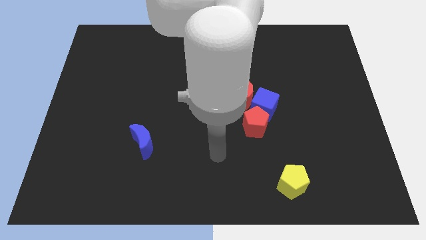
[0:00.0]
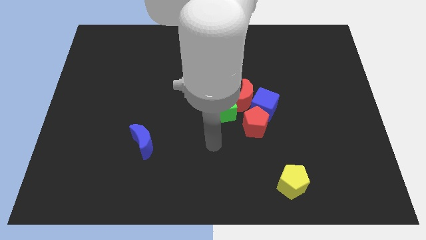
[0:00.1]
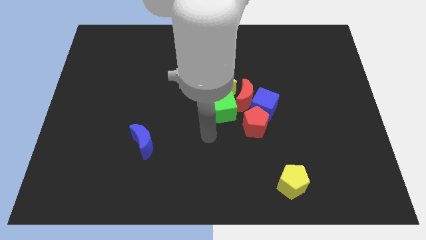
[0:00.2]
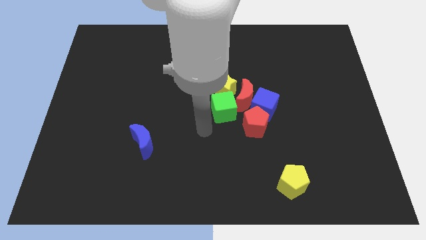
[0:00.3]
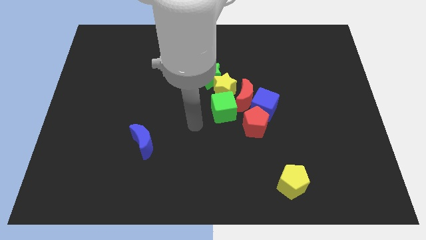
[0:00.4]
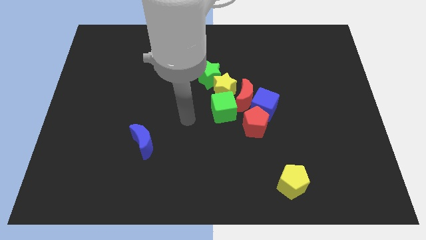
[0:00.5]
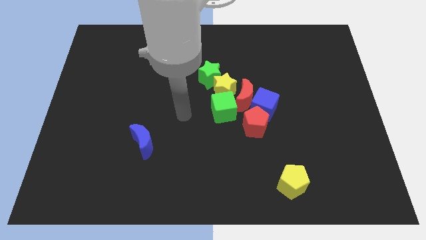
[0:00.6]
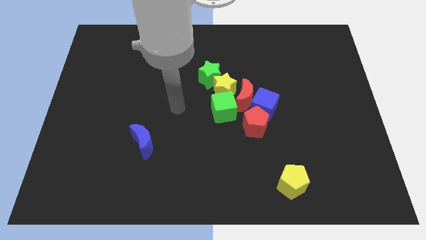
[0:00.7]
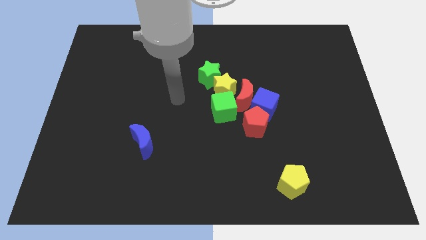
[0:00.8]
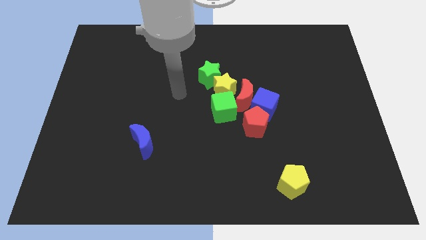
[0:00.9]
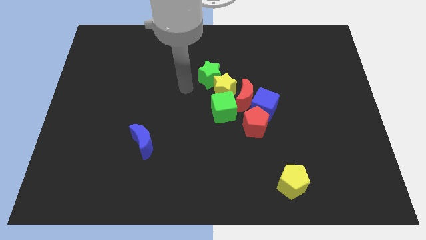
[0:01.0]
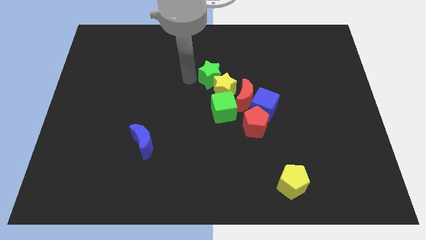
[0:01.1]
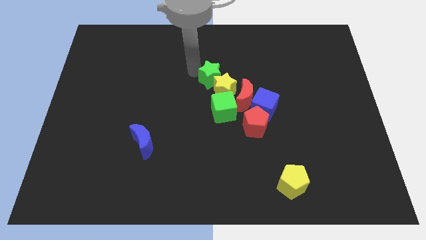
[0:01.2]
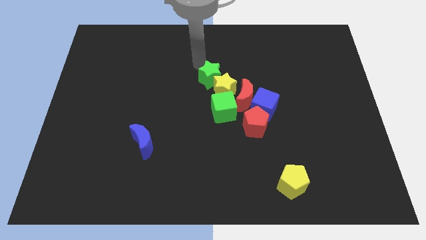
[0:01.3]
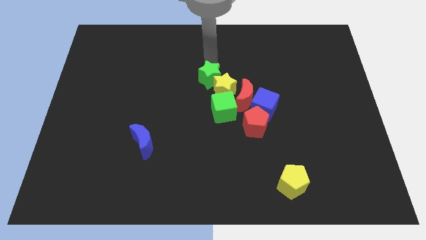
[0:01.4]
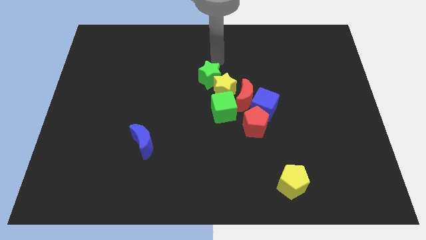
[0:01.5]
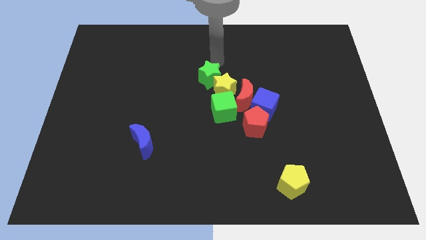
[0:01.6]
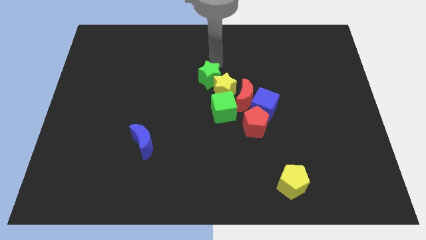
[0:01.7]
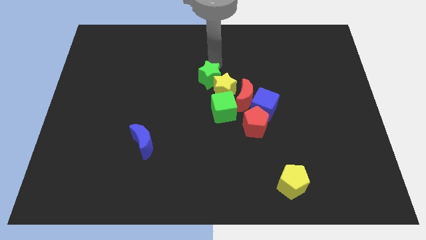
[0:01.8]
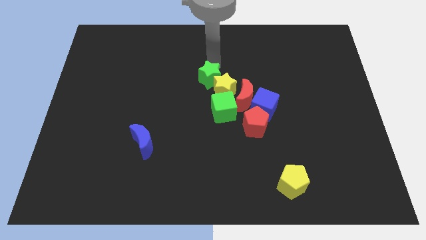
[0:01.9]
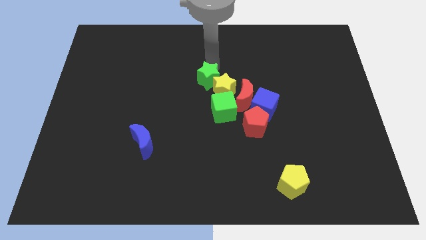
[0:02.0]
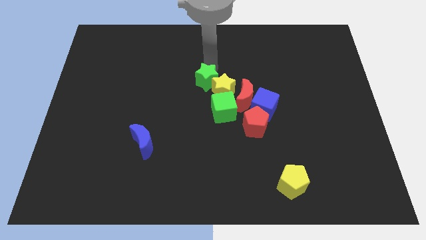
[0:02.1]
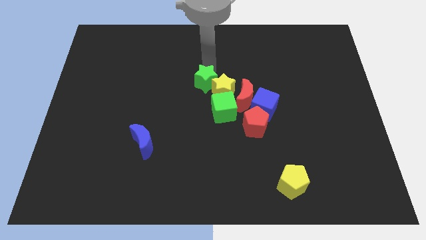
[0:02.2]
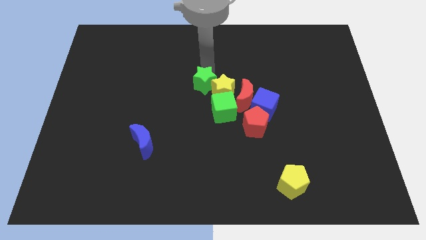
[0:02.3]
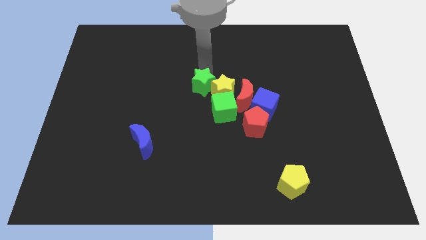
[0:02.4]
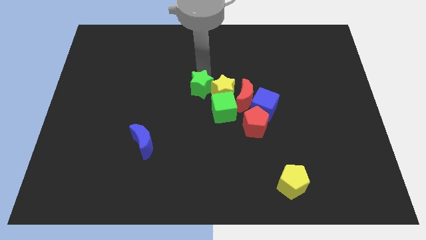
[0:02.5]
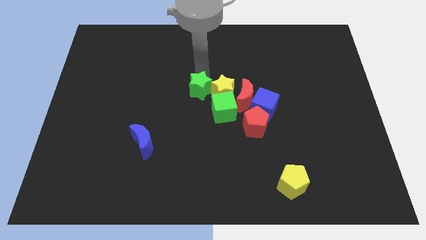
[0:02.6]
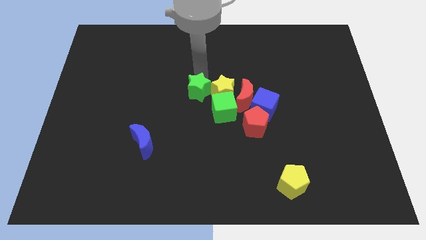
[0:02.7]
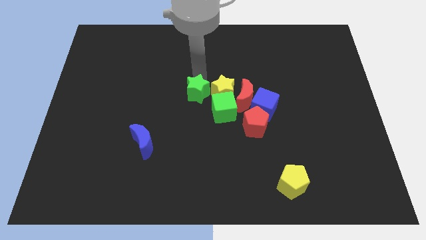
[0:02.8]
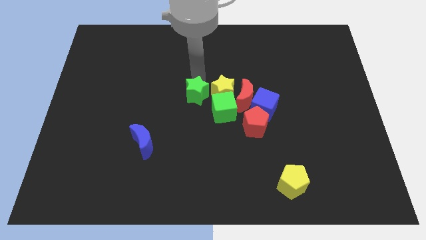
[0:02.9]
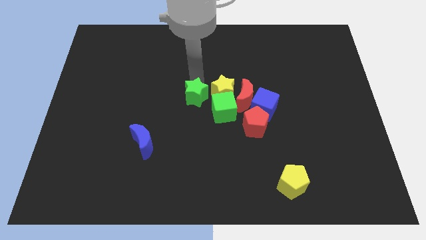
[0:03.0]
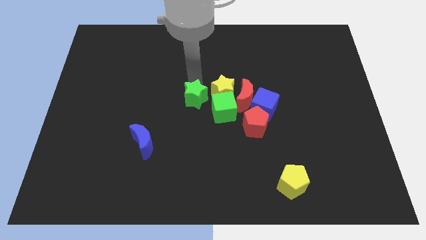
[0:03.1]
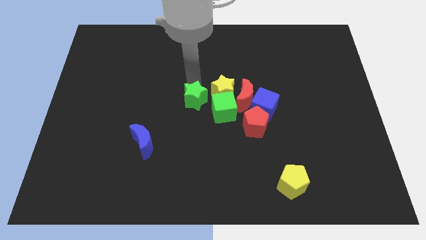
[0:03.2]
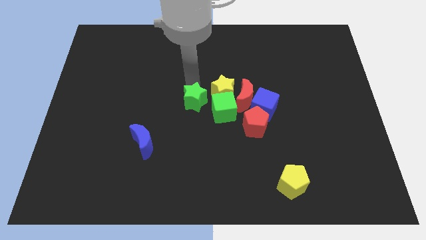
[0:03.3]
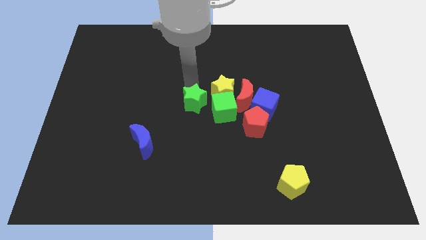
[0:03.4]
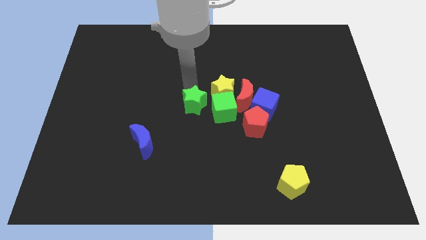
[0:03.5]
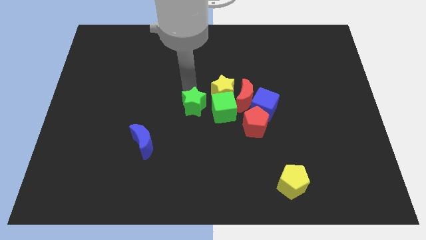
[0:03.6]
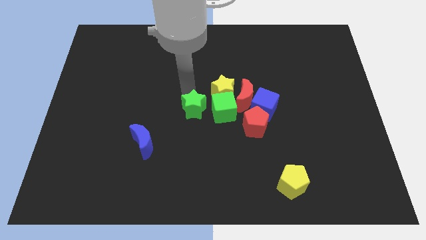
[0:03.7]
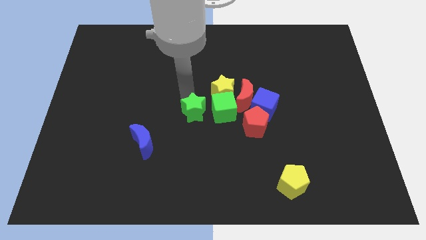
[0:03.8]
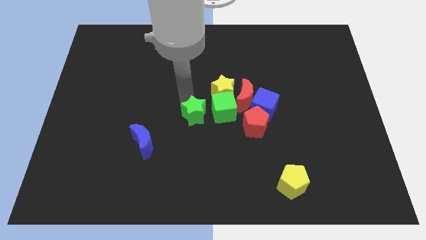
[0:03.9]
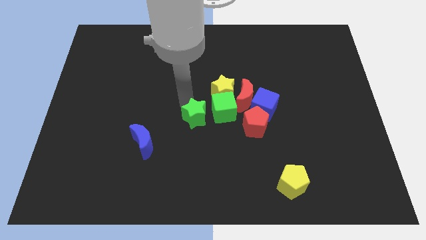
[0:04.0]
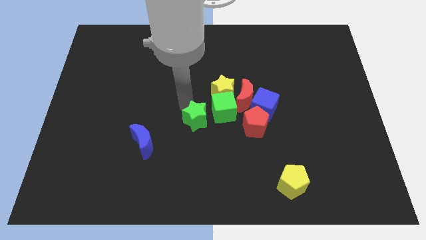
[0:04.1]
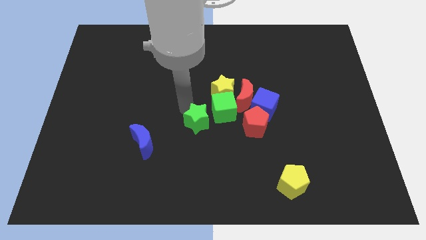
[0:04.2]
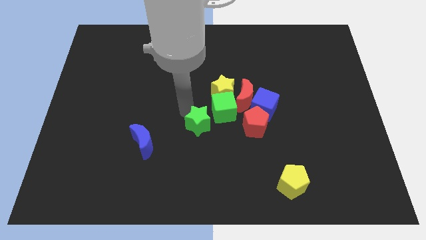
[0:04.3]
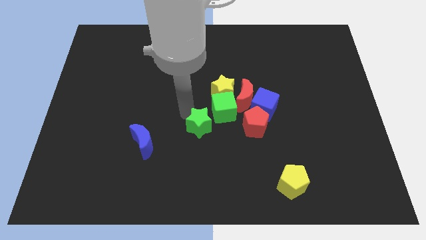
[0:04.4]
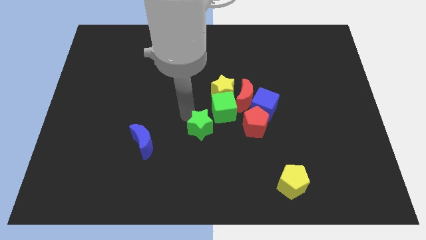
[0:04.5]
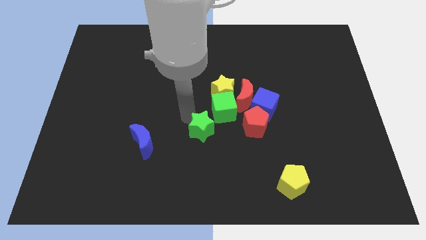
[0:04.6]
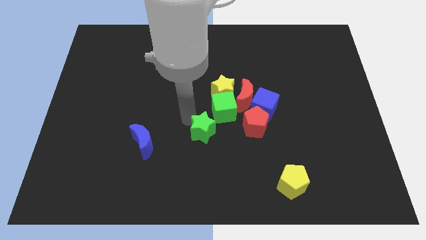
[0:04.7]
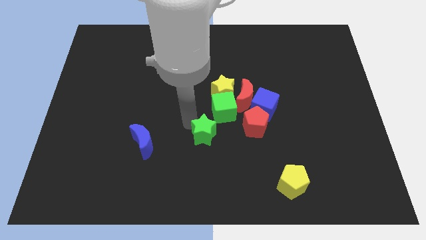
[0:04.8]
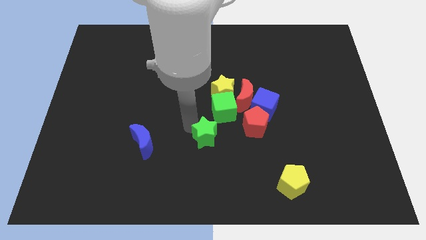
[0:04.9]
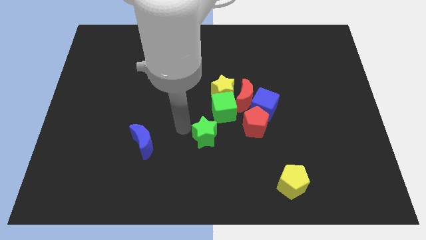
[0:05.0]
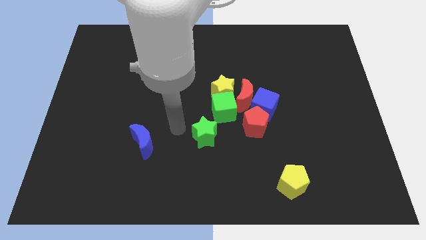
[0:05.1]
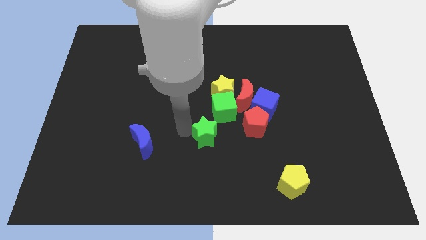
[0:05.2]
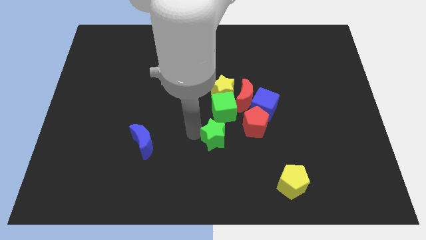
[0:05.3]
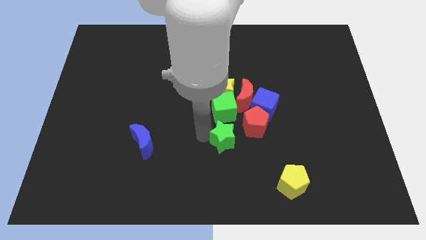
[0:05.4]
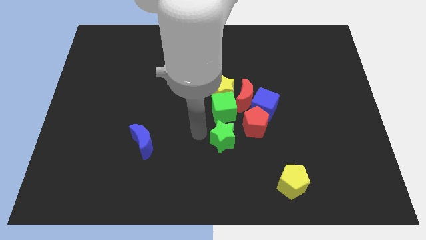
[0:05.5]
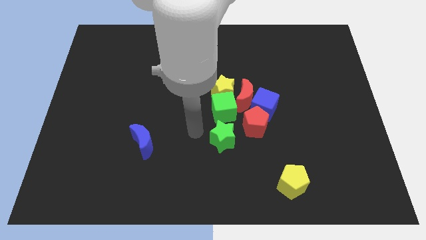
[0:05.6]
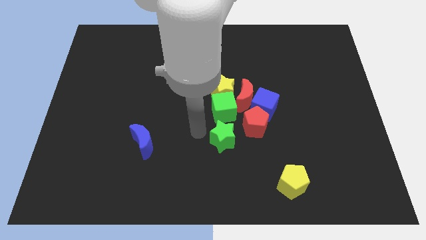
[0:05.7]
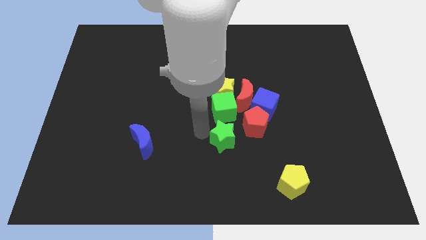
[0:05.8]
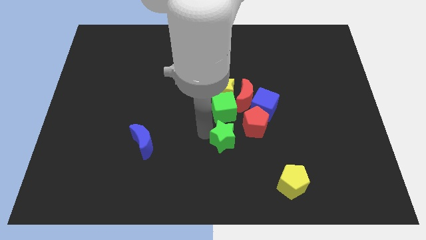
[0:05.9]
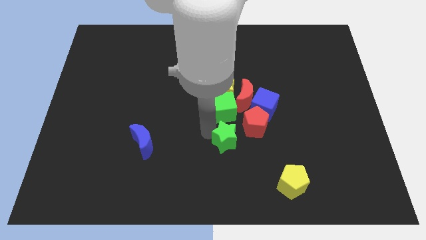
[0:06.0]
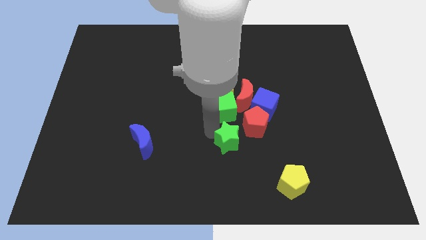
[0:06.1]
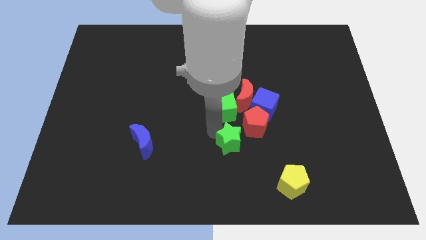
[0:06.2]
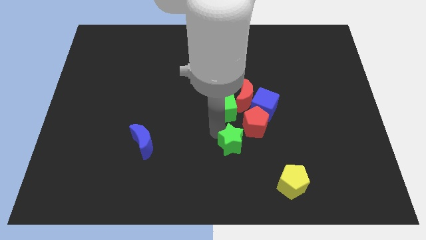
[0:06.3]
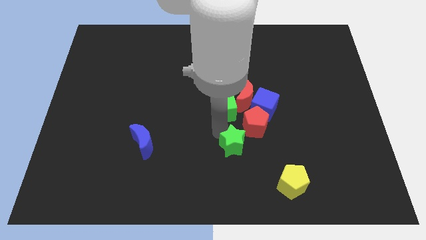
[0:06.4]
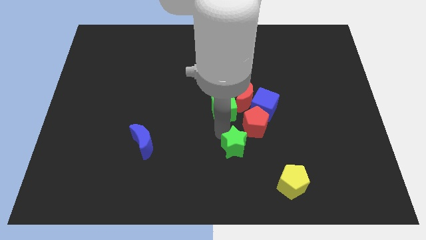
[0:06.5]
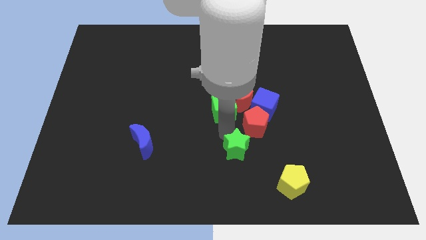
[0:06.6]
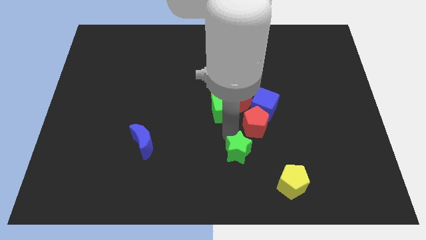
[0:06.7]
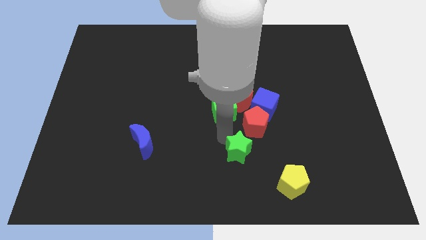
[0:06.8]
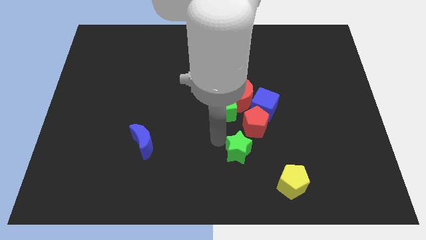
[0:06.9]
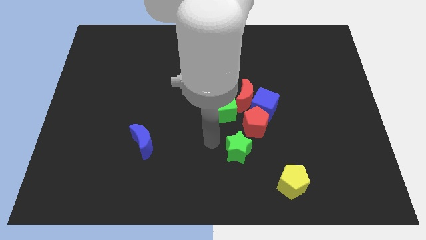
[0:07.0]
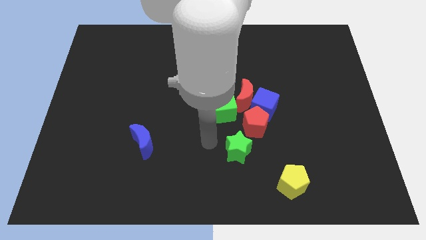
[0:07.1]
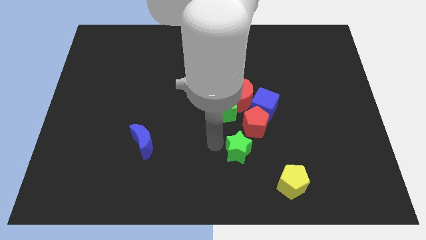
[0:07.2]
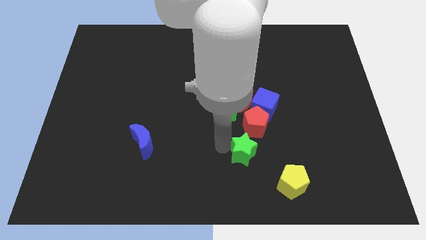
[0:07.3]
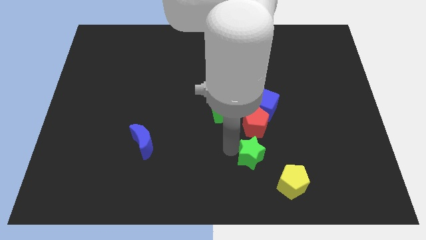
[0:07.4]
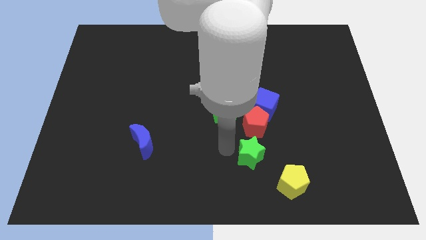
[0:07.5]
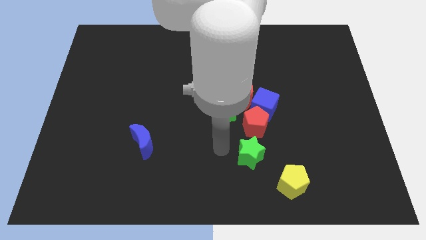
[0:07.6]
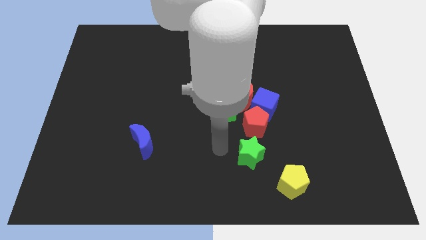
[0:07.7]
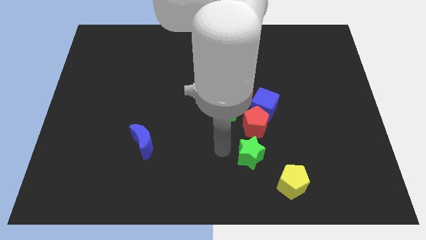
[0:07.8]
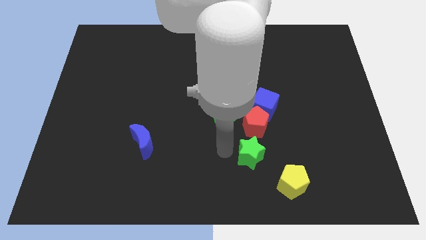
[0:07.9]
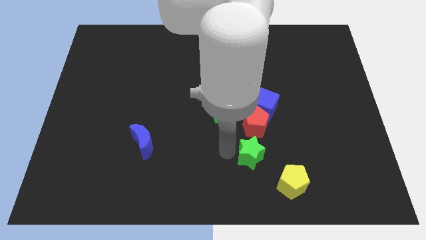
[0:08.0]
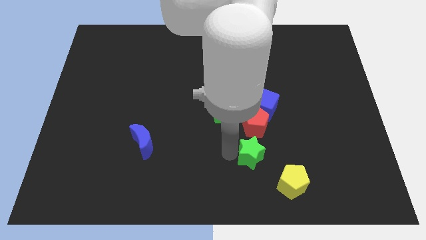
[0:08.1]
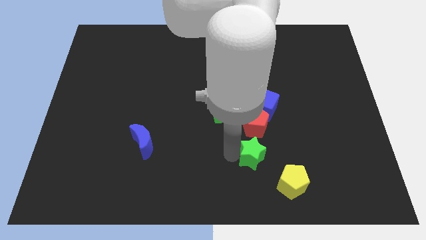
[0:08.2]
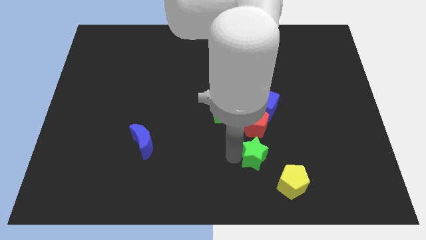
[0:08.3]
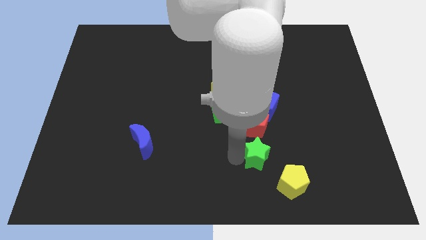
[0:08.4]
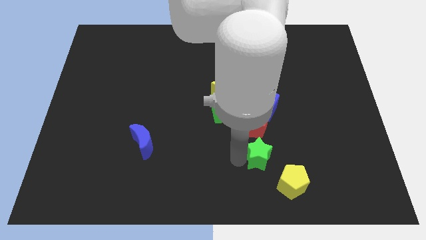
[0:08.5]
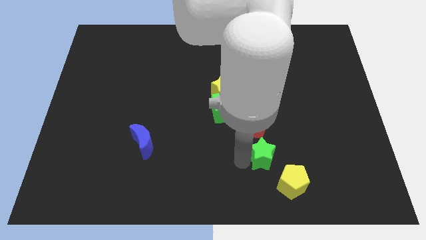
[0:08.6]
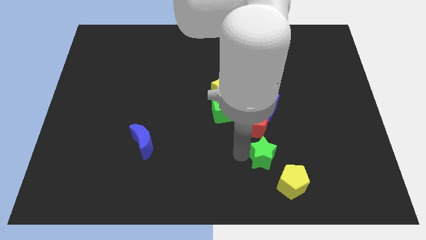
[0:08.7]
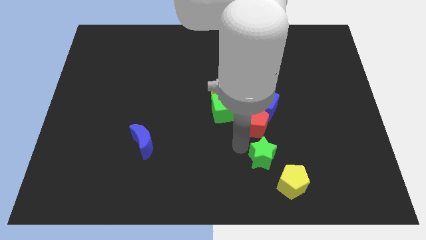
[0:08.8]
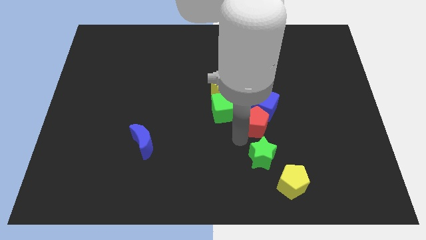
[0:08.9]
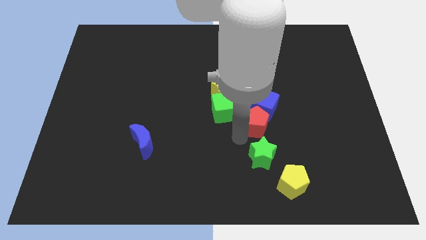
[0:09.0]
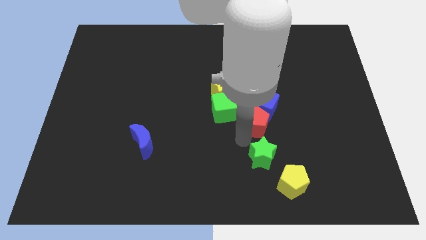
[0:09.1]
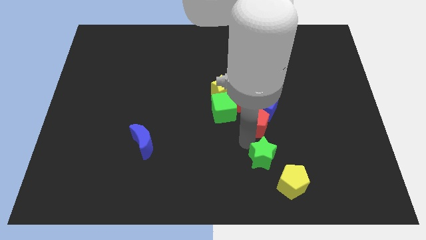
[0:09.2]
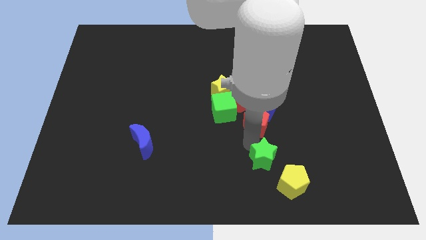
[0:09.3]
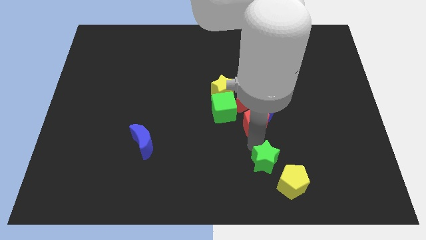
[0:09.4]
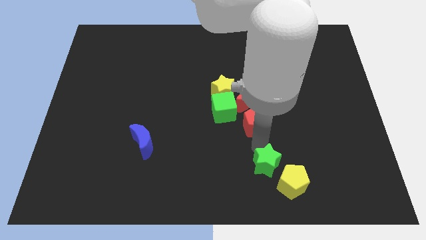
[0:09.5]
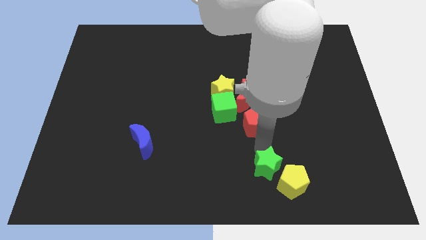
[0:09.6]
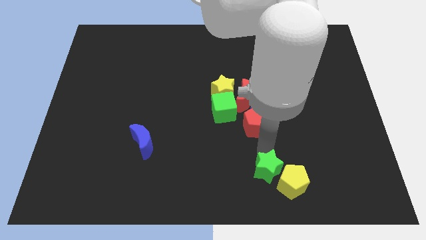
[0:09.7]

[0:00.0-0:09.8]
move the green star close to the yellow pentagon
